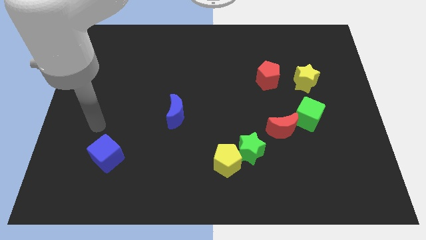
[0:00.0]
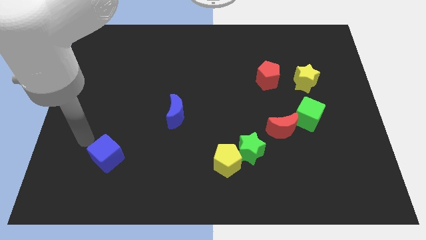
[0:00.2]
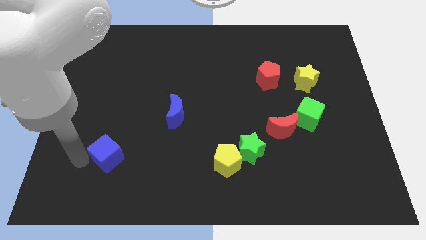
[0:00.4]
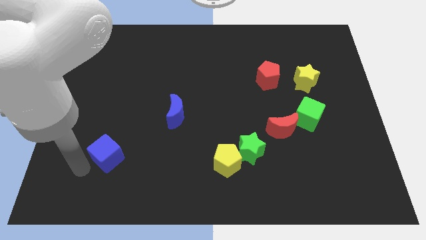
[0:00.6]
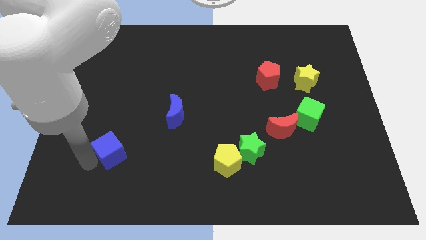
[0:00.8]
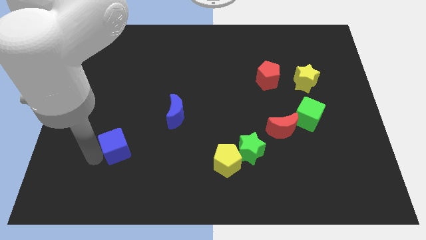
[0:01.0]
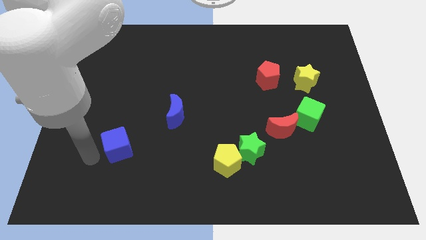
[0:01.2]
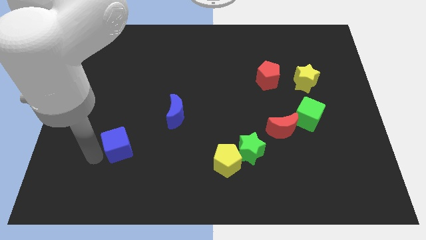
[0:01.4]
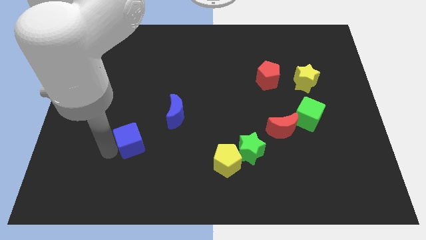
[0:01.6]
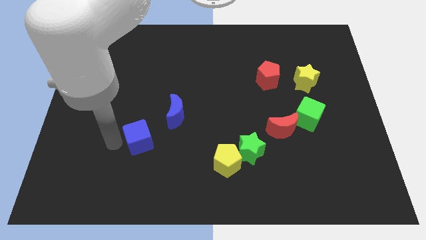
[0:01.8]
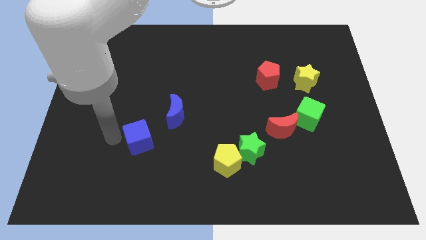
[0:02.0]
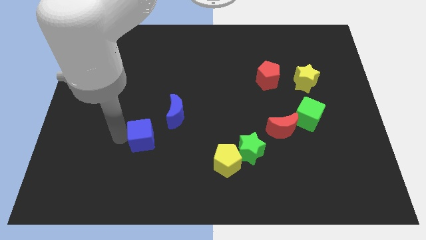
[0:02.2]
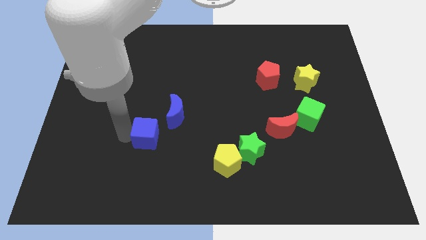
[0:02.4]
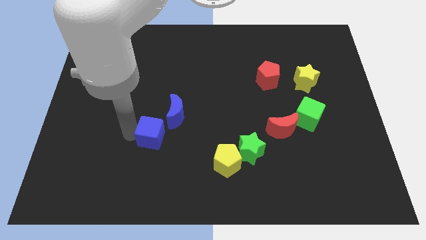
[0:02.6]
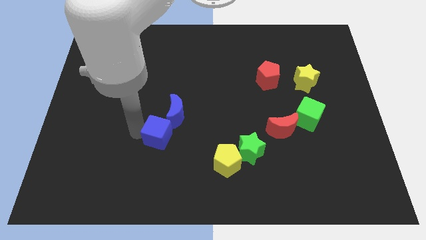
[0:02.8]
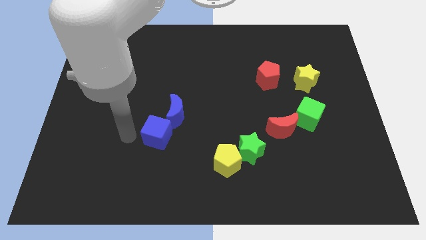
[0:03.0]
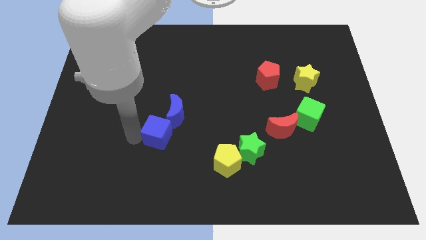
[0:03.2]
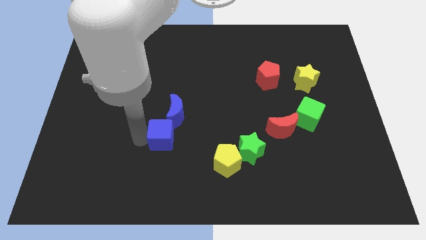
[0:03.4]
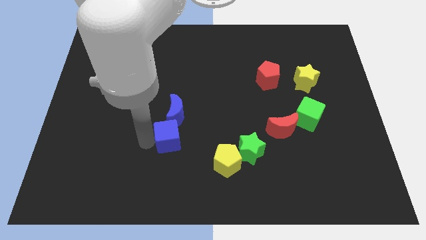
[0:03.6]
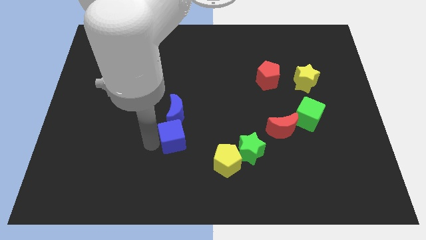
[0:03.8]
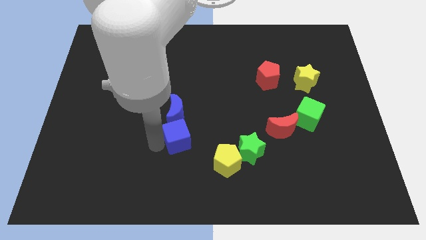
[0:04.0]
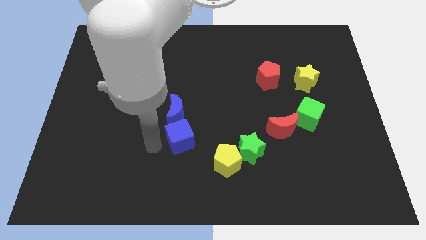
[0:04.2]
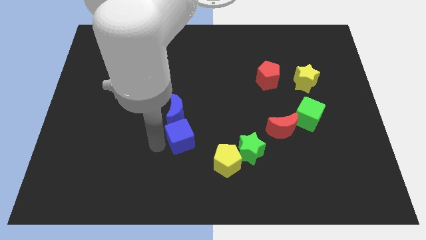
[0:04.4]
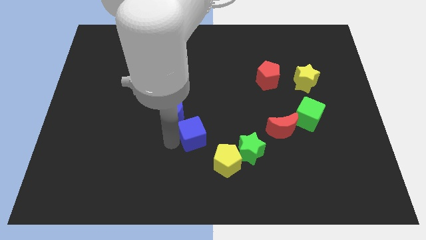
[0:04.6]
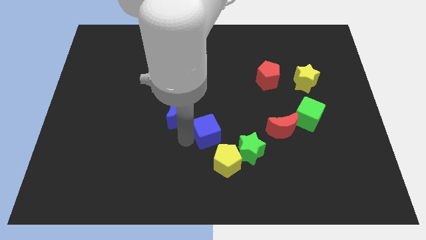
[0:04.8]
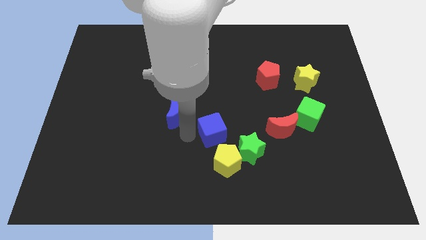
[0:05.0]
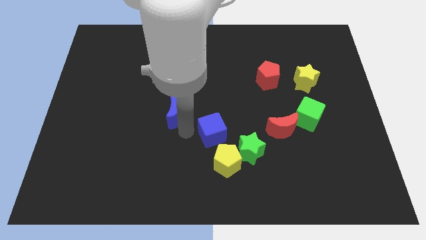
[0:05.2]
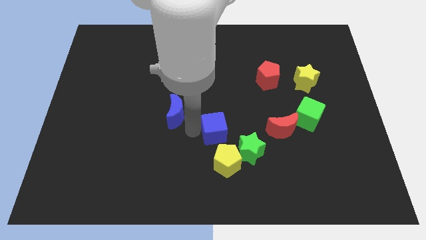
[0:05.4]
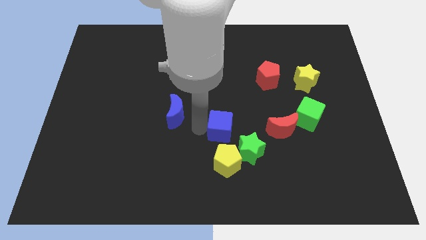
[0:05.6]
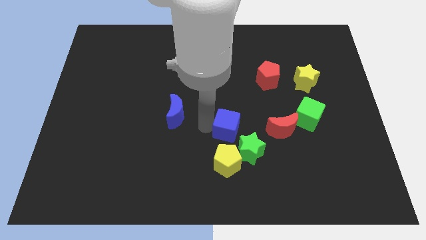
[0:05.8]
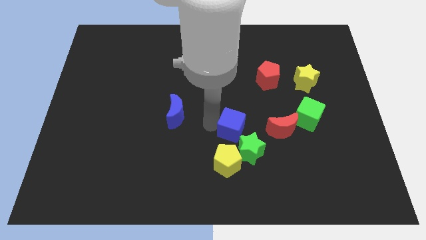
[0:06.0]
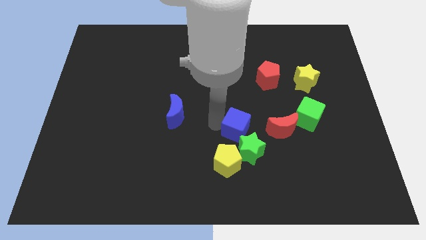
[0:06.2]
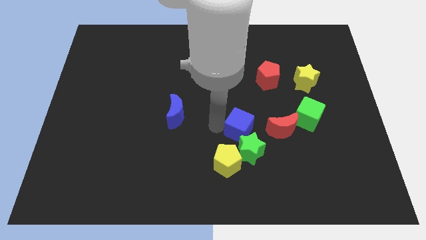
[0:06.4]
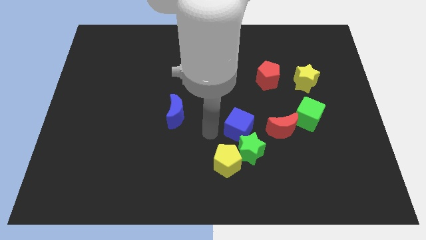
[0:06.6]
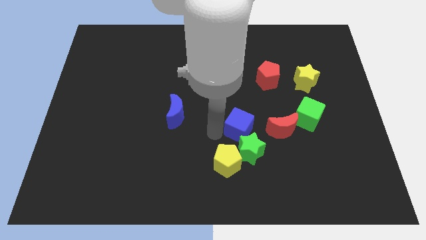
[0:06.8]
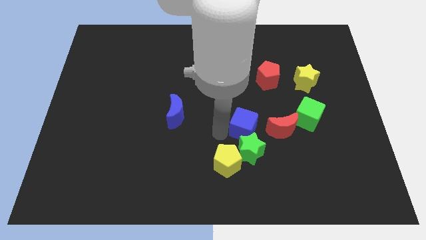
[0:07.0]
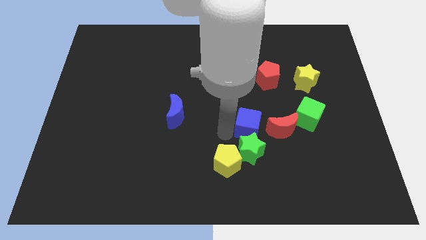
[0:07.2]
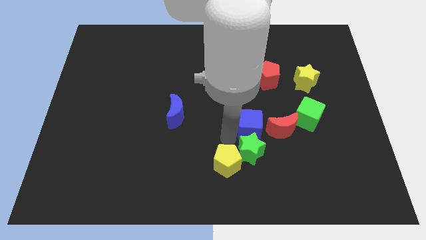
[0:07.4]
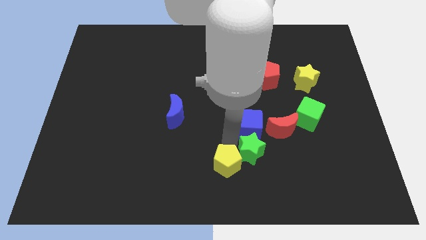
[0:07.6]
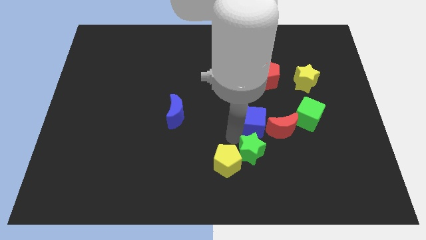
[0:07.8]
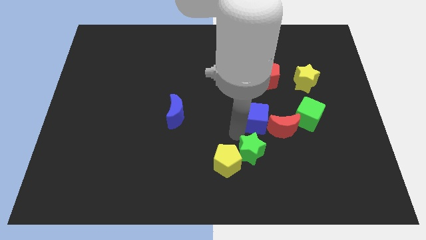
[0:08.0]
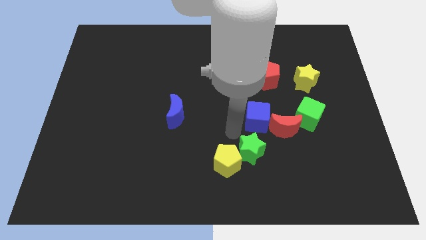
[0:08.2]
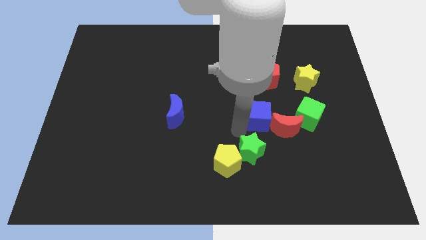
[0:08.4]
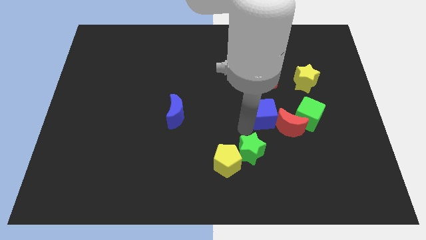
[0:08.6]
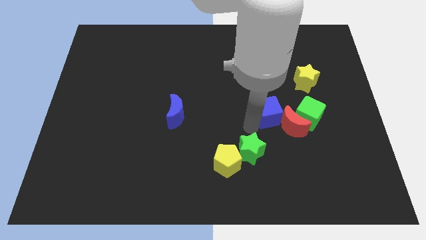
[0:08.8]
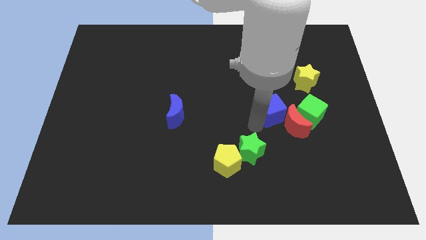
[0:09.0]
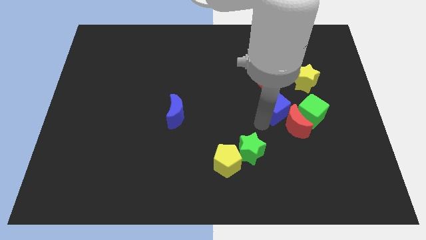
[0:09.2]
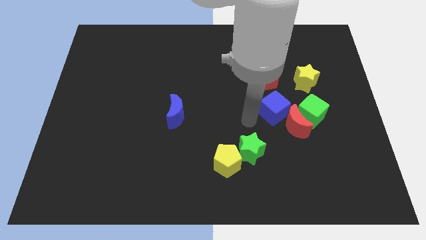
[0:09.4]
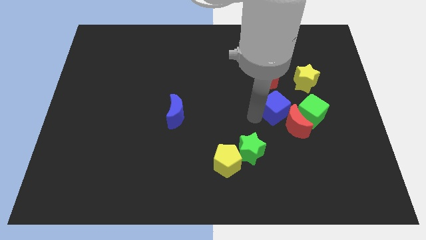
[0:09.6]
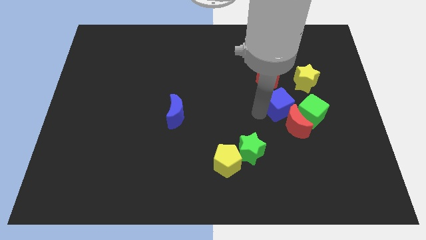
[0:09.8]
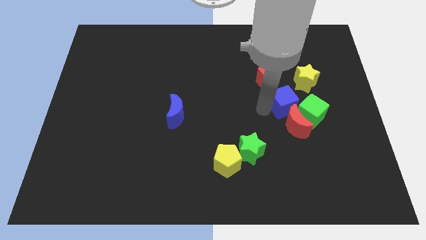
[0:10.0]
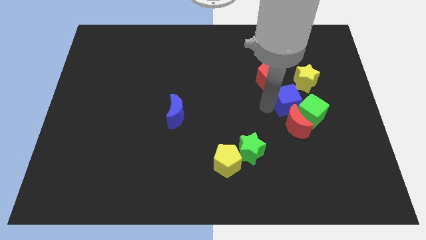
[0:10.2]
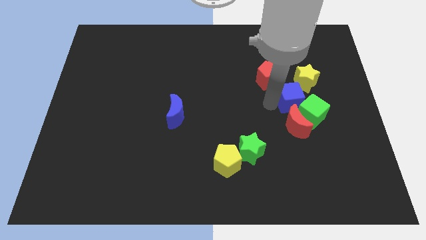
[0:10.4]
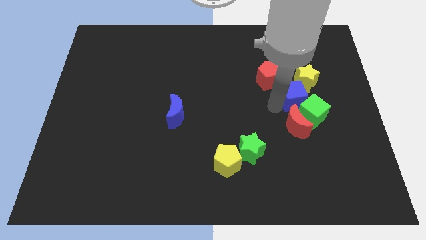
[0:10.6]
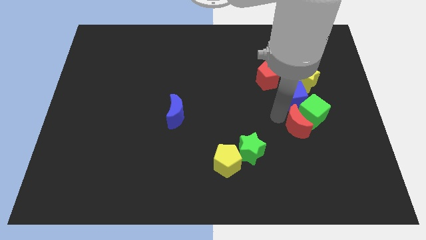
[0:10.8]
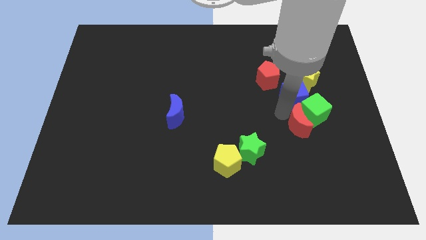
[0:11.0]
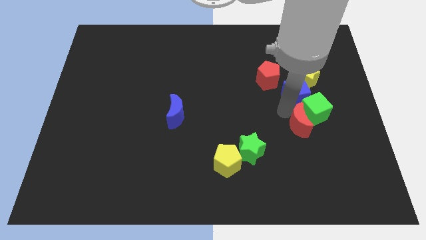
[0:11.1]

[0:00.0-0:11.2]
put the blue cube towards the yellow star

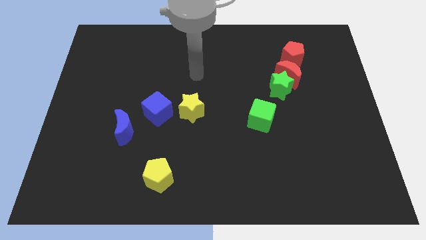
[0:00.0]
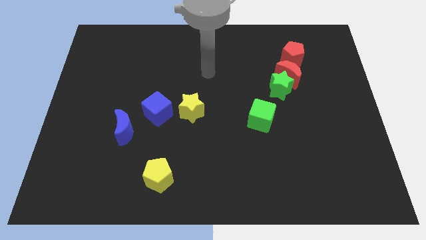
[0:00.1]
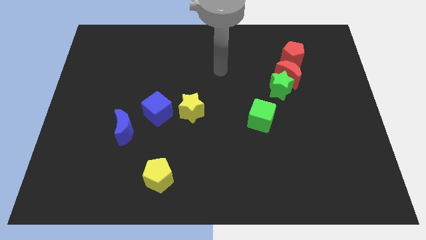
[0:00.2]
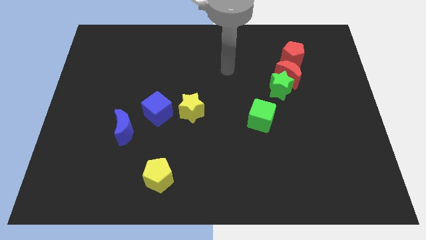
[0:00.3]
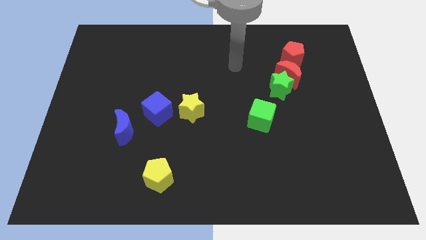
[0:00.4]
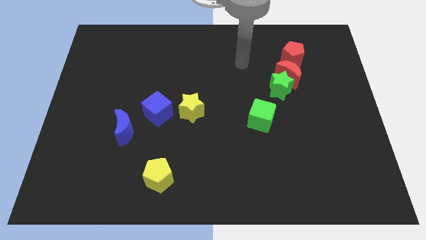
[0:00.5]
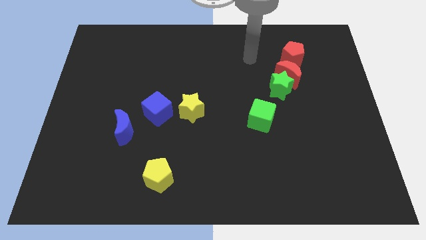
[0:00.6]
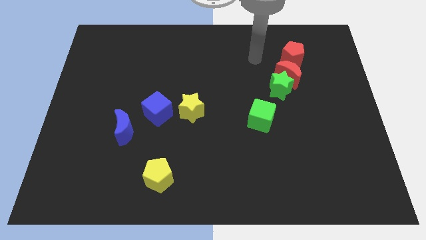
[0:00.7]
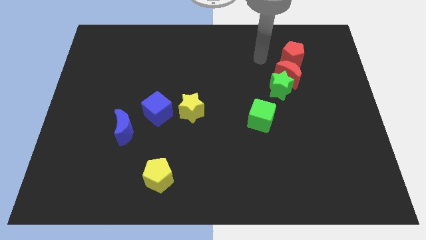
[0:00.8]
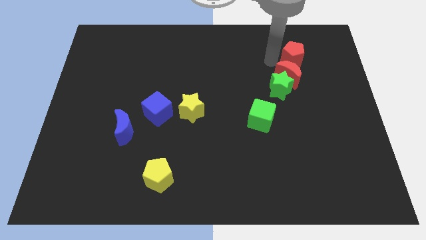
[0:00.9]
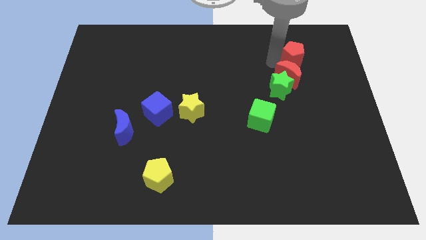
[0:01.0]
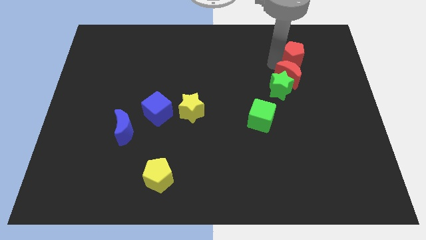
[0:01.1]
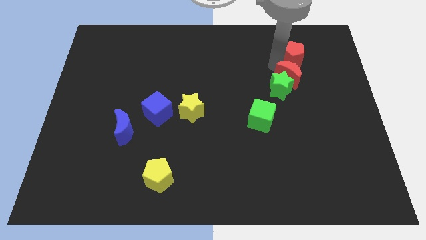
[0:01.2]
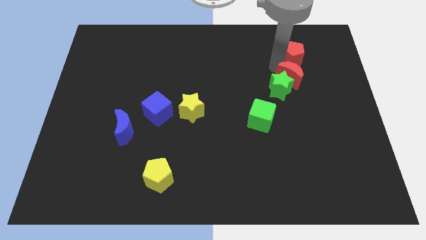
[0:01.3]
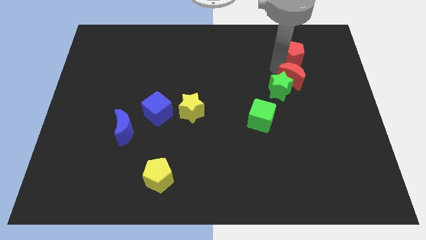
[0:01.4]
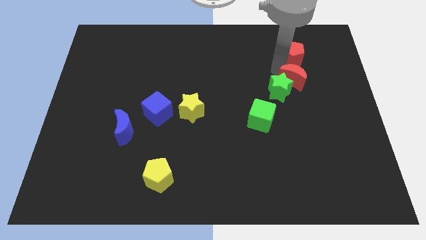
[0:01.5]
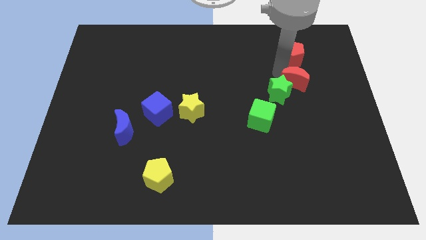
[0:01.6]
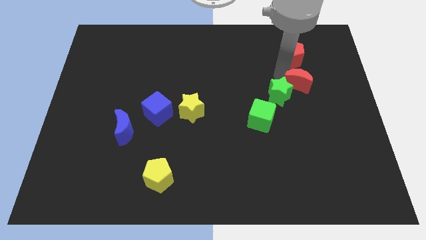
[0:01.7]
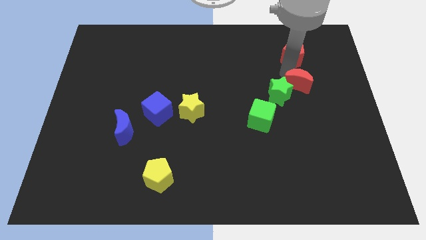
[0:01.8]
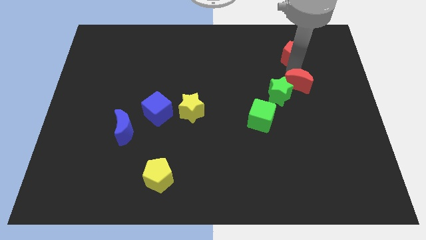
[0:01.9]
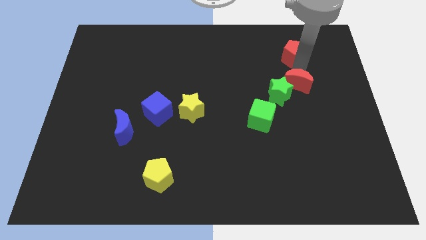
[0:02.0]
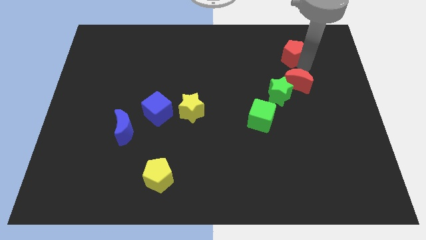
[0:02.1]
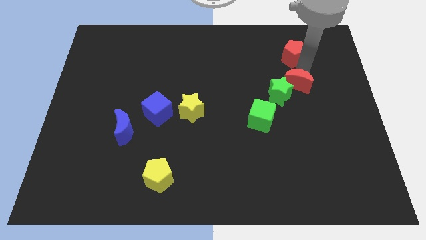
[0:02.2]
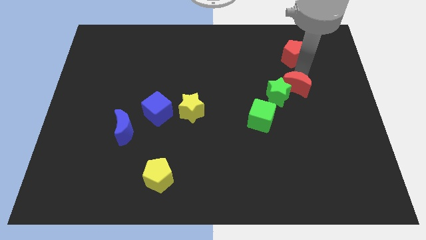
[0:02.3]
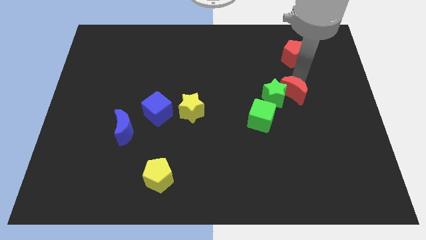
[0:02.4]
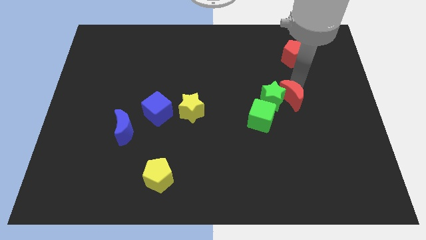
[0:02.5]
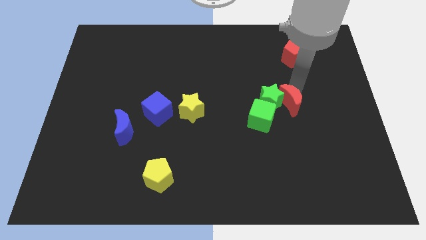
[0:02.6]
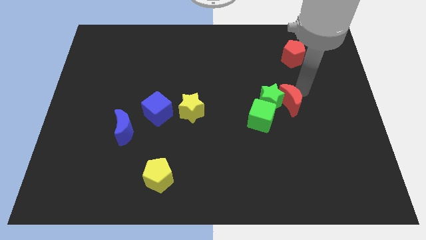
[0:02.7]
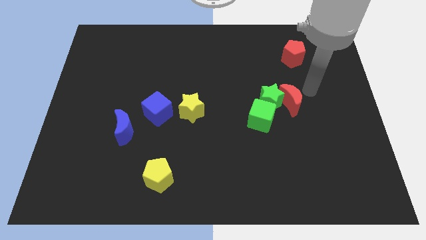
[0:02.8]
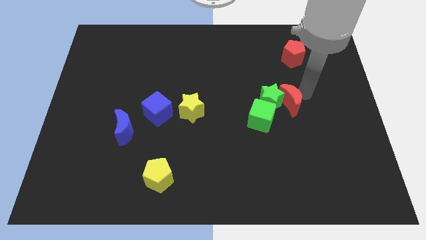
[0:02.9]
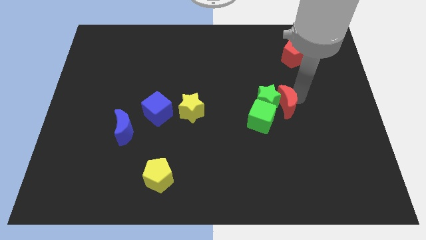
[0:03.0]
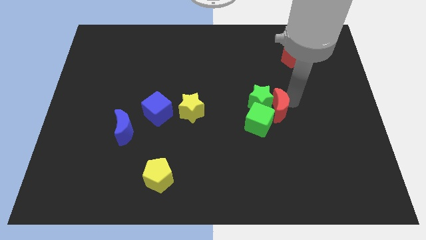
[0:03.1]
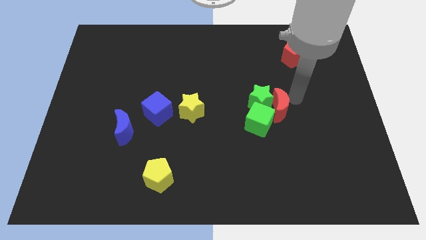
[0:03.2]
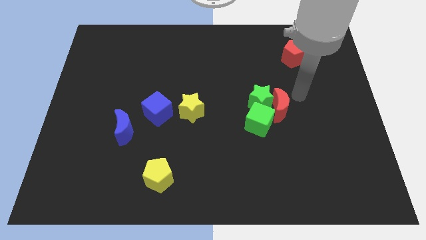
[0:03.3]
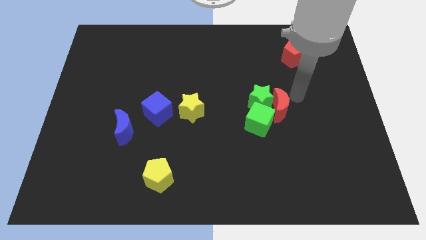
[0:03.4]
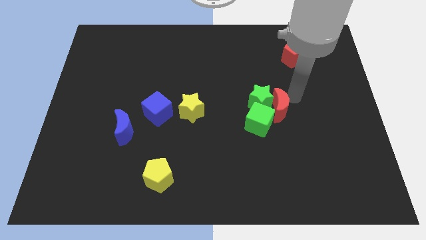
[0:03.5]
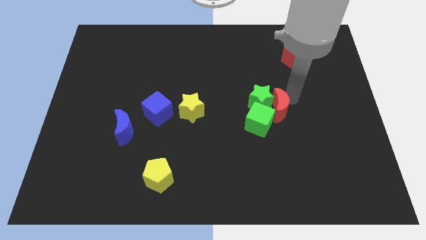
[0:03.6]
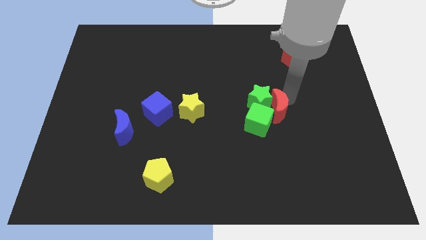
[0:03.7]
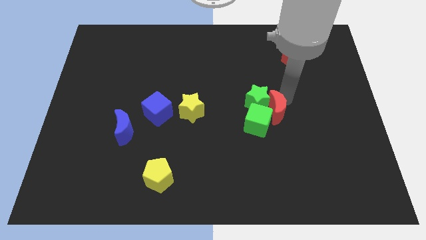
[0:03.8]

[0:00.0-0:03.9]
slide the red moon to the green cube
